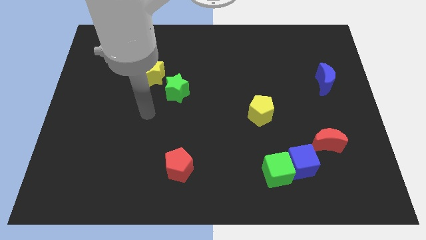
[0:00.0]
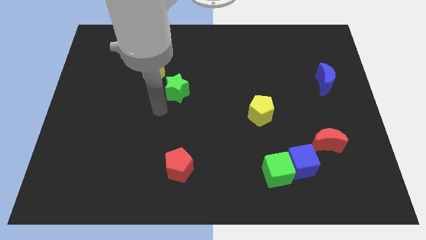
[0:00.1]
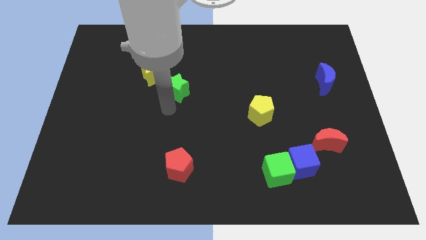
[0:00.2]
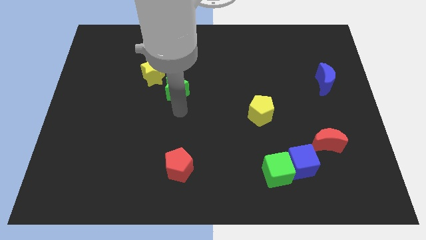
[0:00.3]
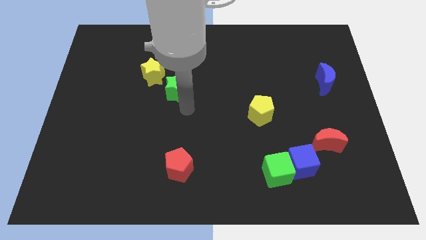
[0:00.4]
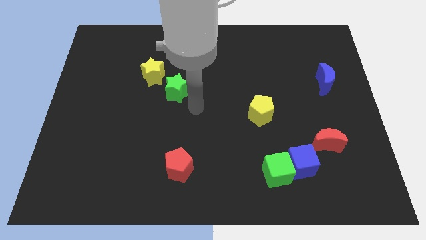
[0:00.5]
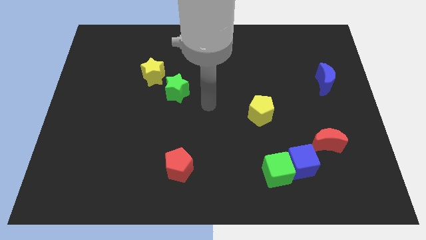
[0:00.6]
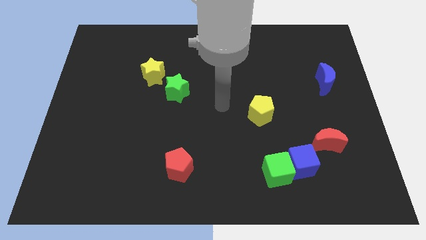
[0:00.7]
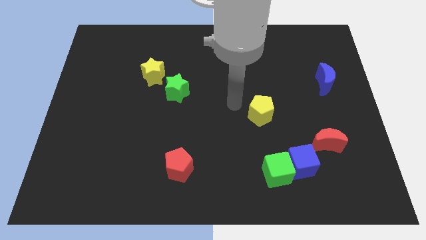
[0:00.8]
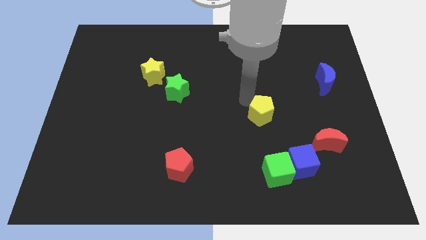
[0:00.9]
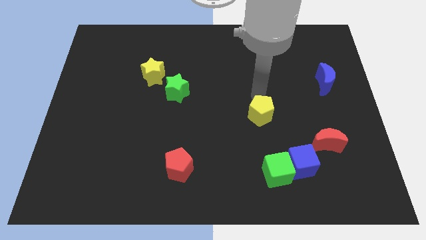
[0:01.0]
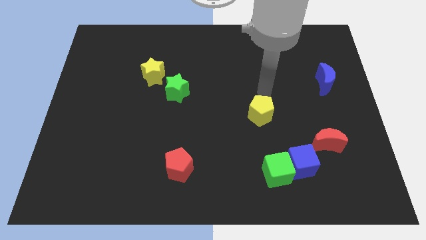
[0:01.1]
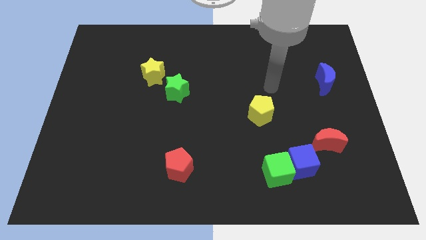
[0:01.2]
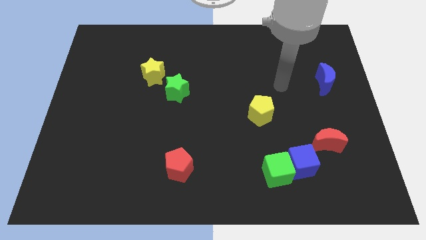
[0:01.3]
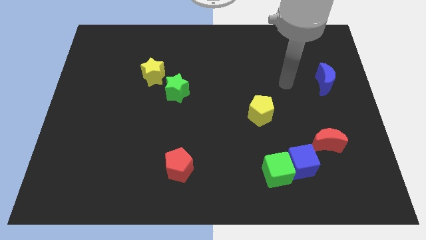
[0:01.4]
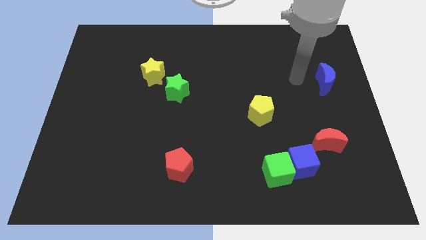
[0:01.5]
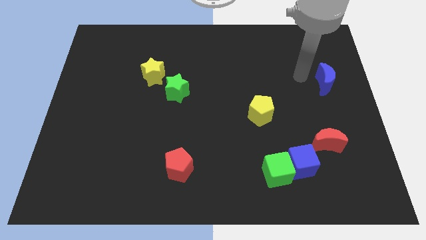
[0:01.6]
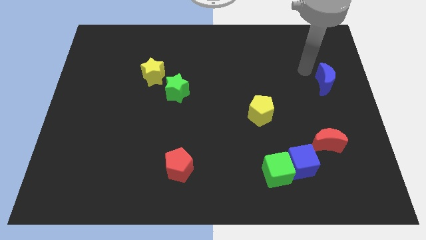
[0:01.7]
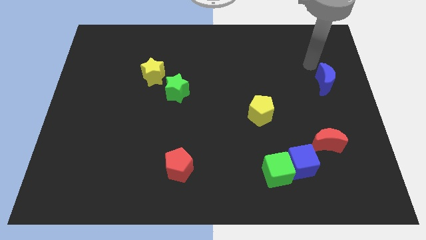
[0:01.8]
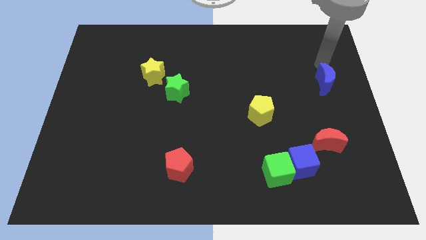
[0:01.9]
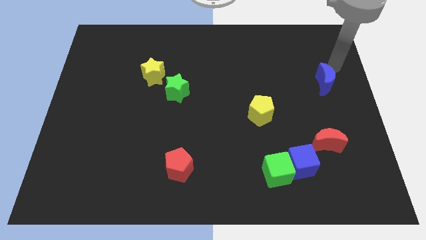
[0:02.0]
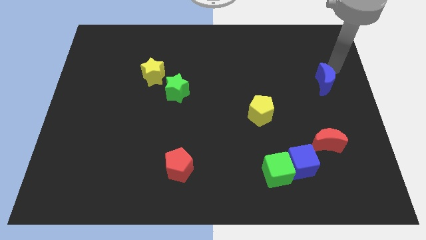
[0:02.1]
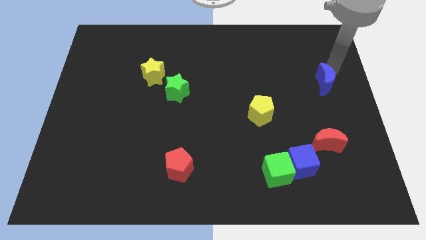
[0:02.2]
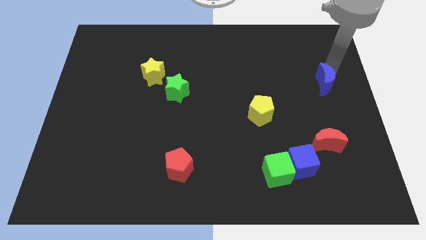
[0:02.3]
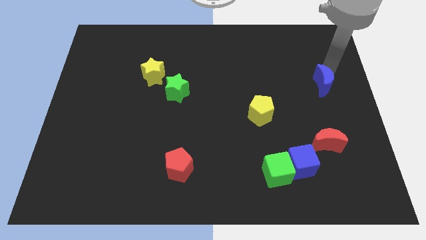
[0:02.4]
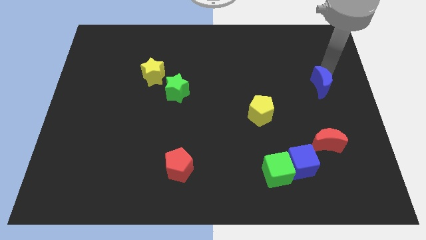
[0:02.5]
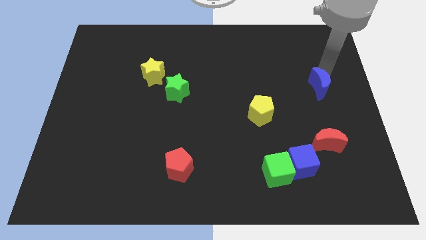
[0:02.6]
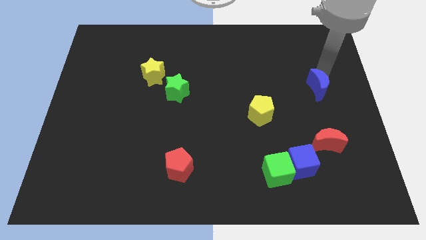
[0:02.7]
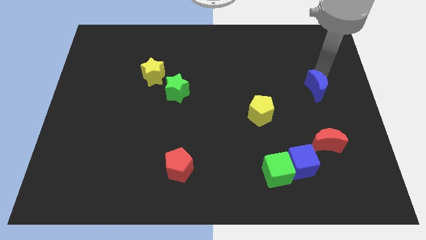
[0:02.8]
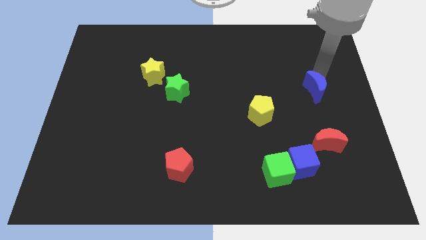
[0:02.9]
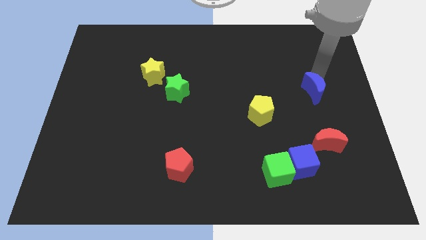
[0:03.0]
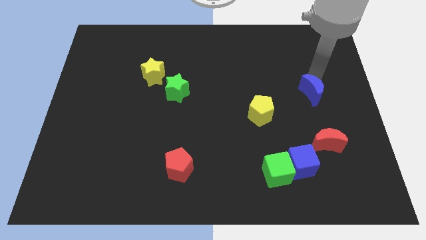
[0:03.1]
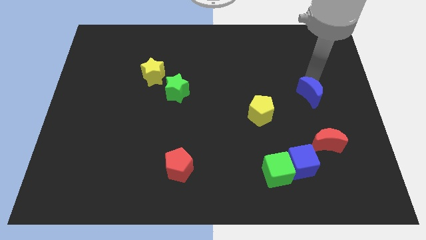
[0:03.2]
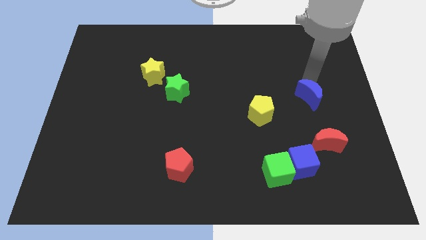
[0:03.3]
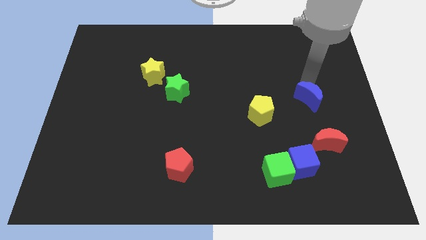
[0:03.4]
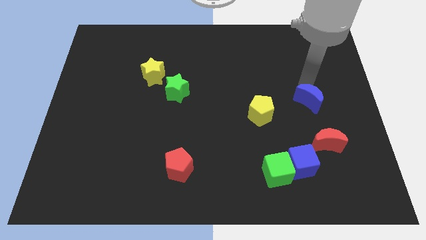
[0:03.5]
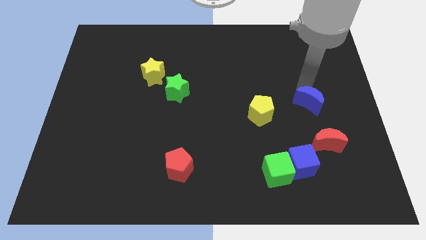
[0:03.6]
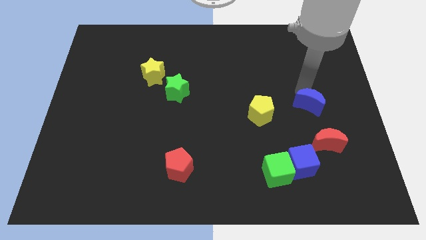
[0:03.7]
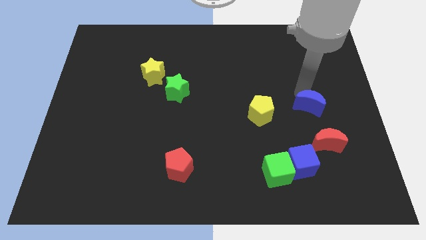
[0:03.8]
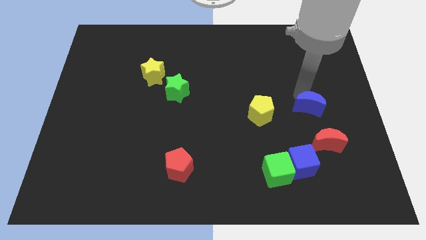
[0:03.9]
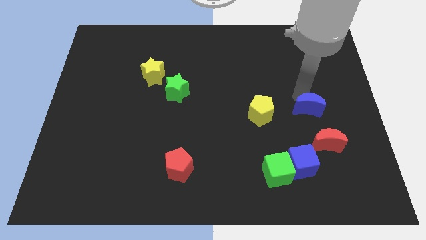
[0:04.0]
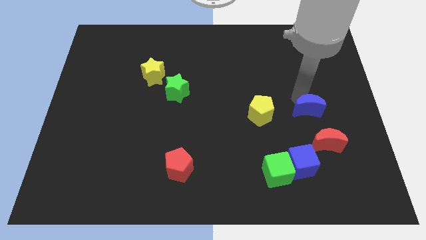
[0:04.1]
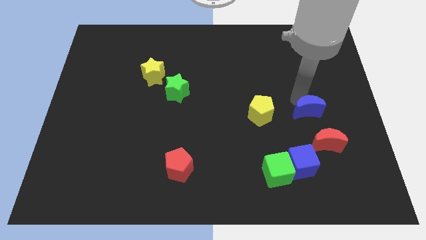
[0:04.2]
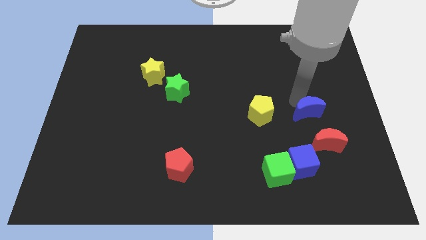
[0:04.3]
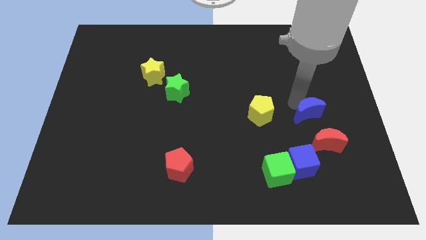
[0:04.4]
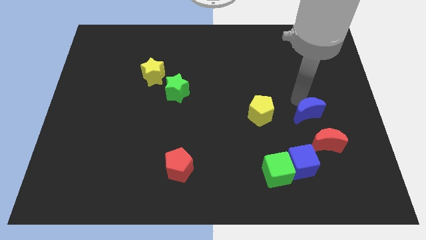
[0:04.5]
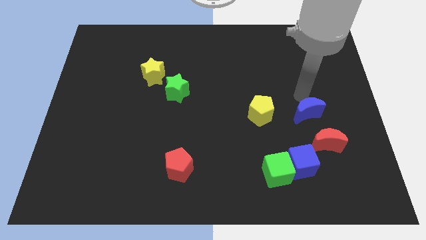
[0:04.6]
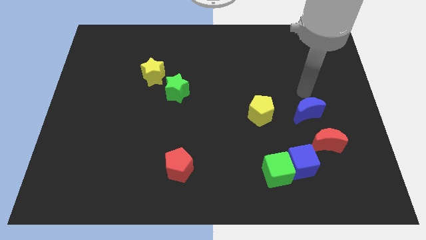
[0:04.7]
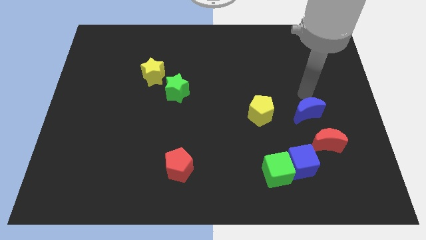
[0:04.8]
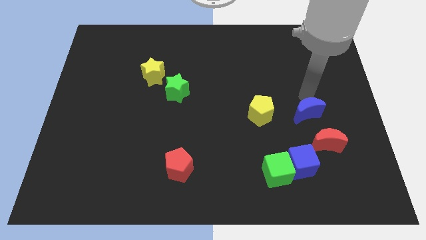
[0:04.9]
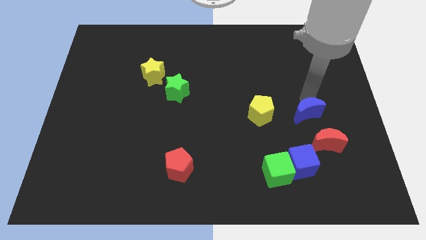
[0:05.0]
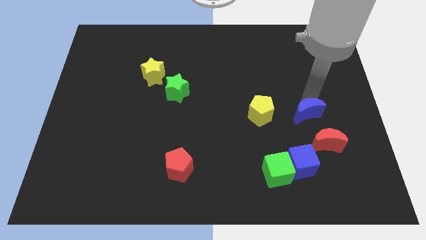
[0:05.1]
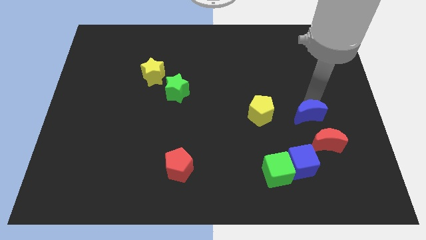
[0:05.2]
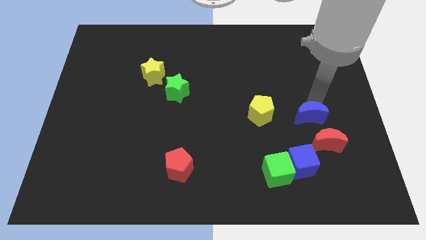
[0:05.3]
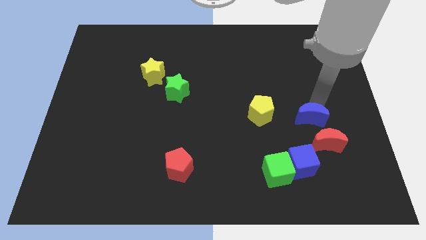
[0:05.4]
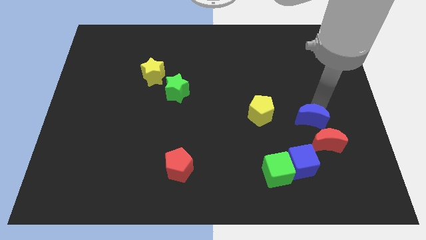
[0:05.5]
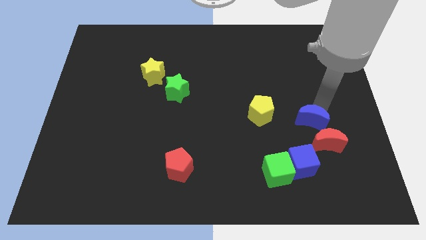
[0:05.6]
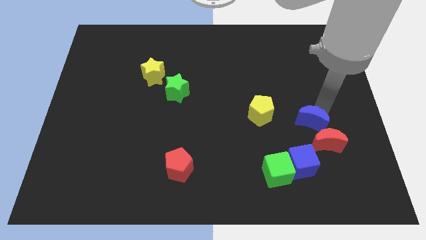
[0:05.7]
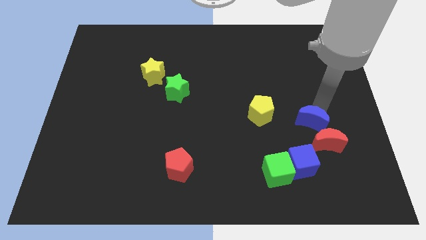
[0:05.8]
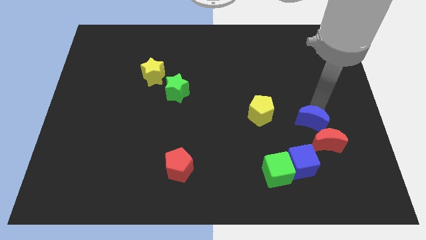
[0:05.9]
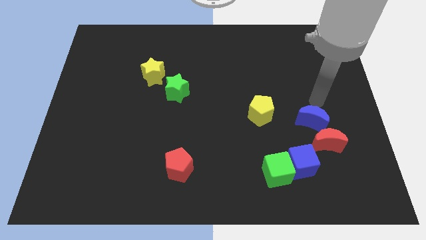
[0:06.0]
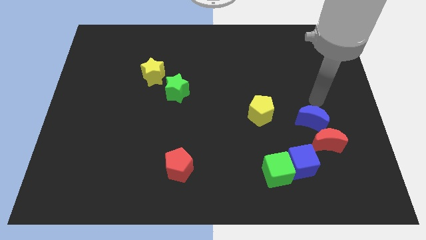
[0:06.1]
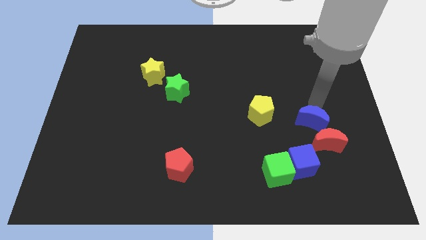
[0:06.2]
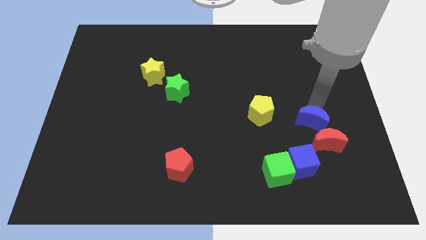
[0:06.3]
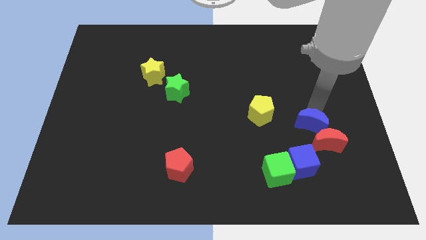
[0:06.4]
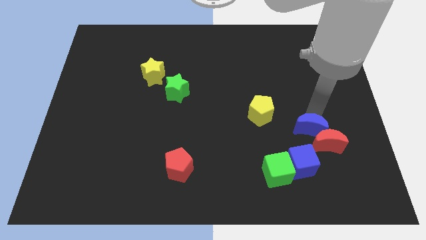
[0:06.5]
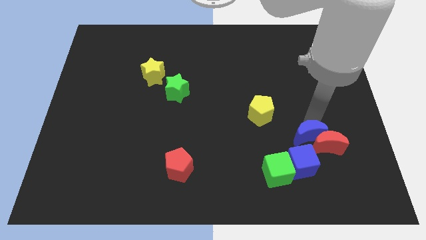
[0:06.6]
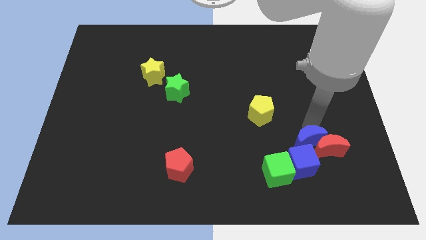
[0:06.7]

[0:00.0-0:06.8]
put the blue moon towards the blue cube
